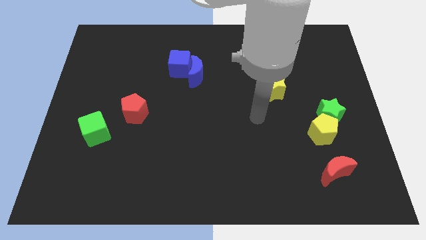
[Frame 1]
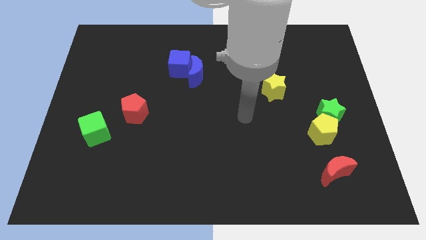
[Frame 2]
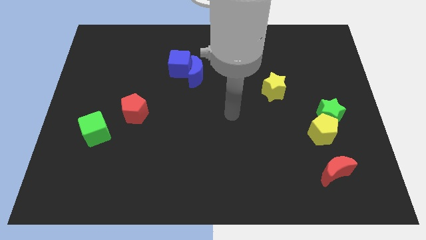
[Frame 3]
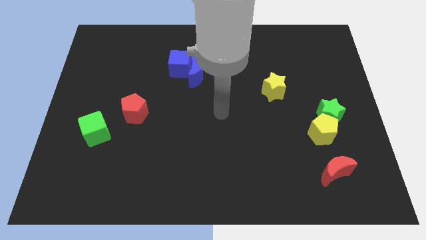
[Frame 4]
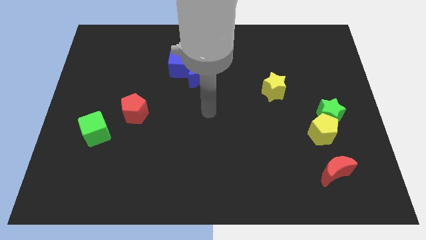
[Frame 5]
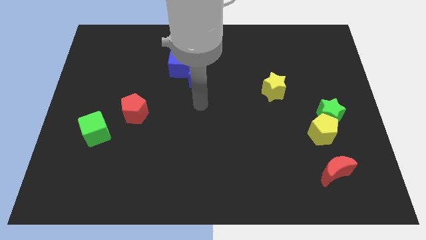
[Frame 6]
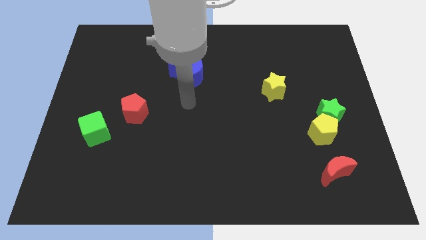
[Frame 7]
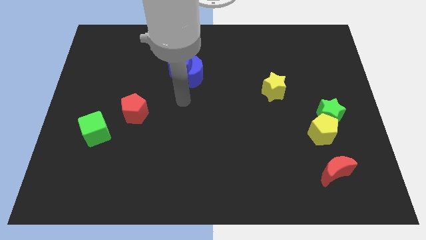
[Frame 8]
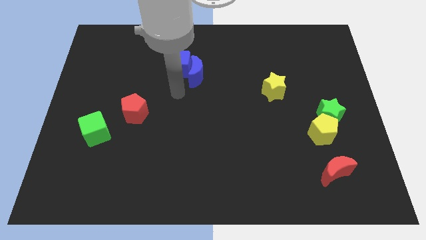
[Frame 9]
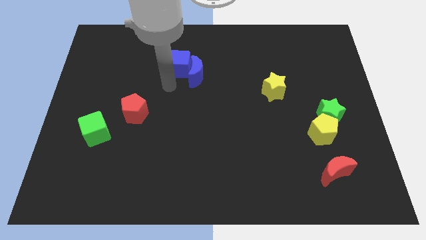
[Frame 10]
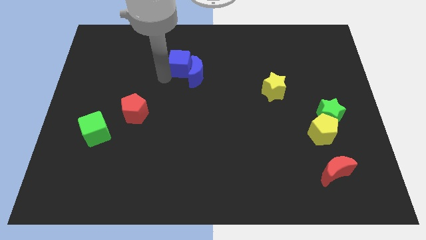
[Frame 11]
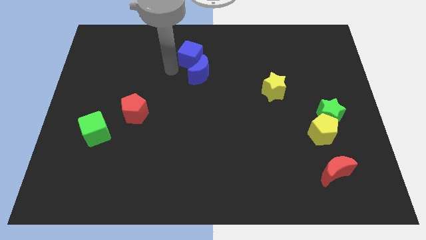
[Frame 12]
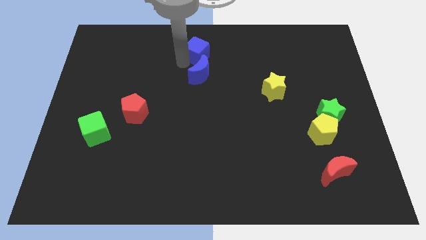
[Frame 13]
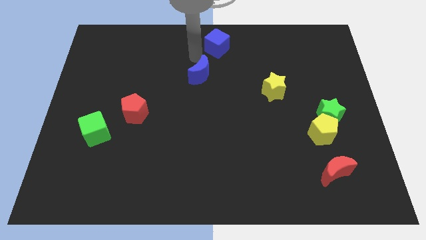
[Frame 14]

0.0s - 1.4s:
separate the blue moon from the blue cube

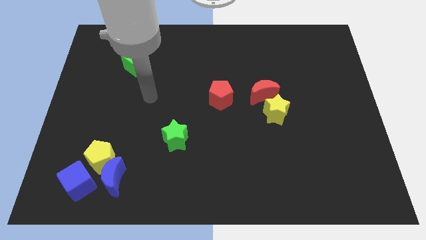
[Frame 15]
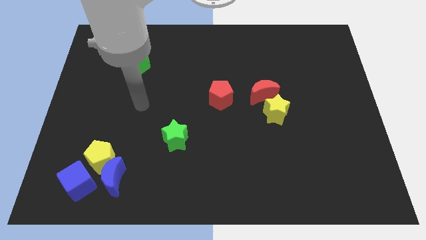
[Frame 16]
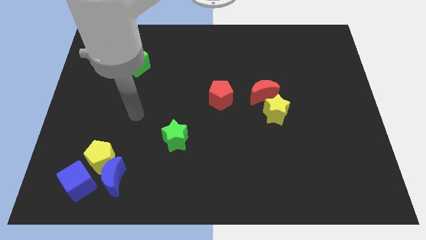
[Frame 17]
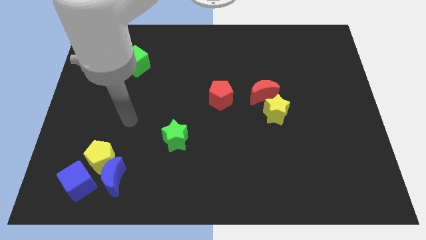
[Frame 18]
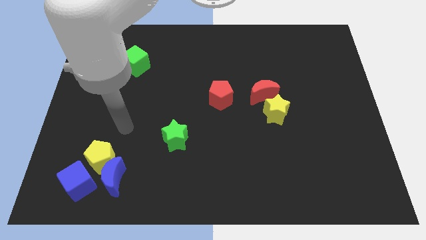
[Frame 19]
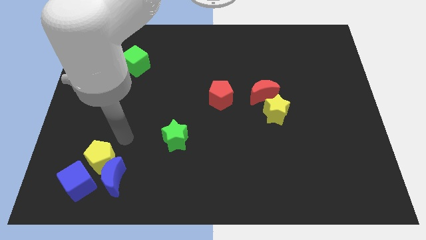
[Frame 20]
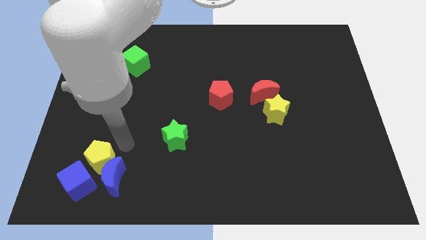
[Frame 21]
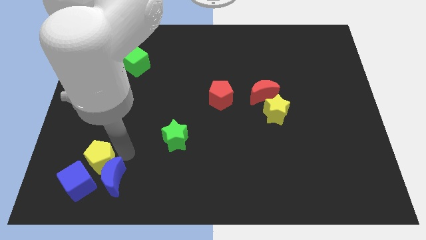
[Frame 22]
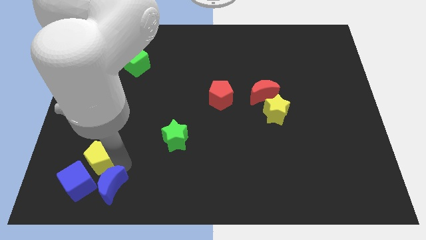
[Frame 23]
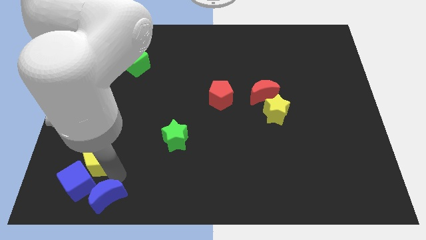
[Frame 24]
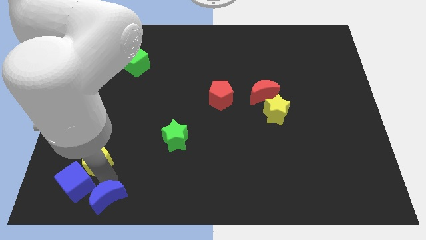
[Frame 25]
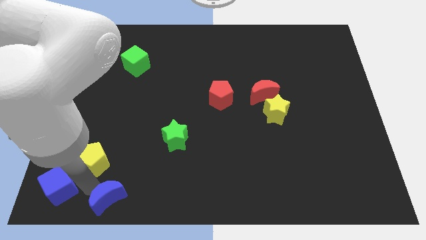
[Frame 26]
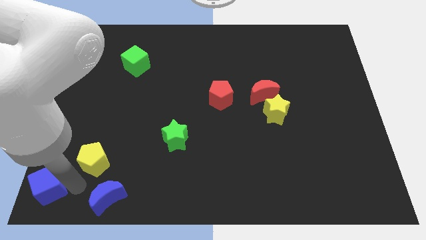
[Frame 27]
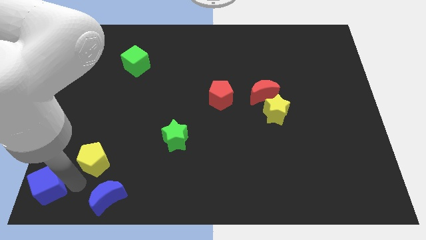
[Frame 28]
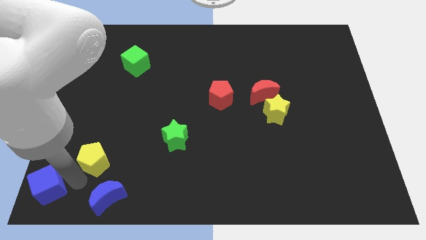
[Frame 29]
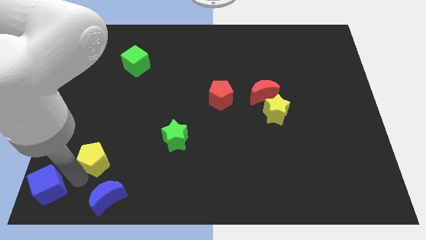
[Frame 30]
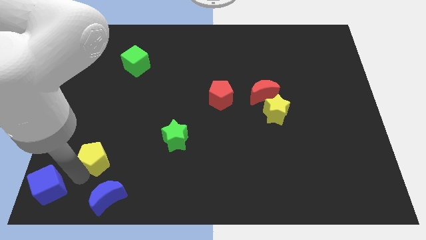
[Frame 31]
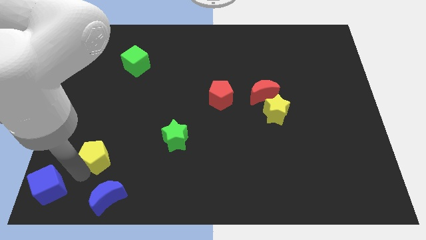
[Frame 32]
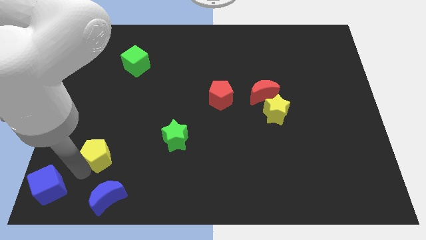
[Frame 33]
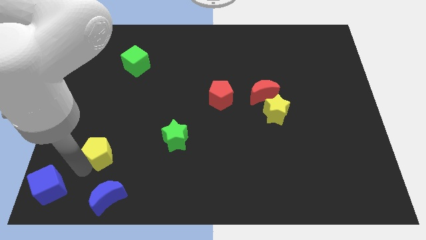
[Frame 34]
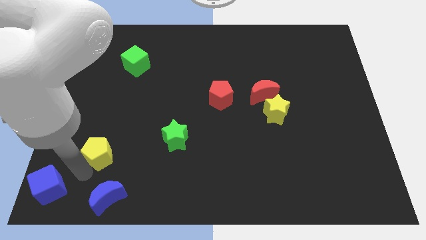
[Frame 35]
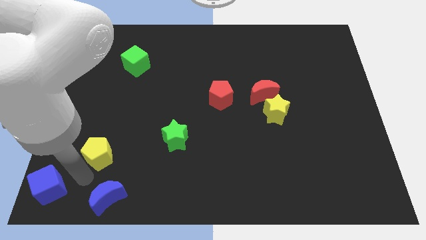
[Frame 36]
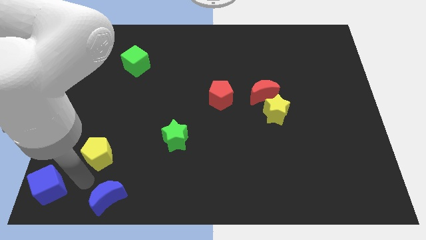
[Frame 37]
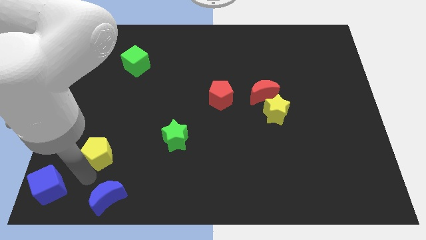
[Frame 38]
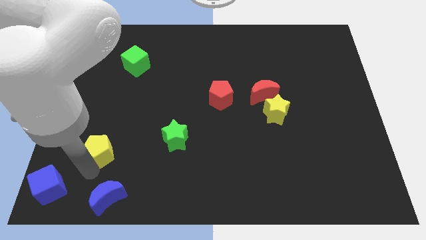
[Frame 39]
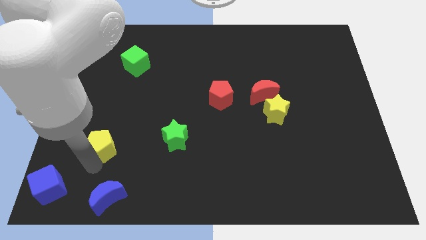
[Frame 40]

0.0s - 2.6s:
pull the yellow pentagon apart from the blue moon and blue cube

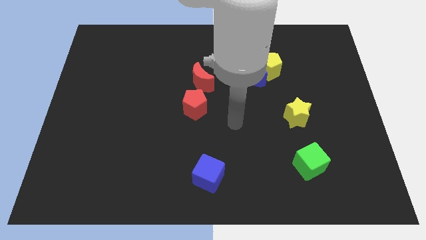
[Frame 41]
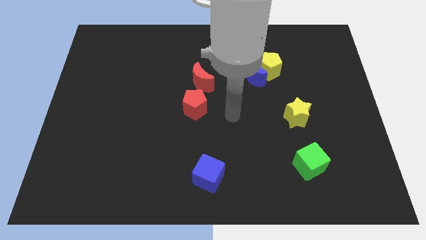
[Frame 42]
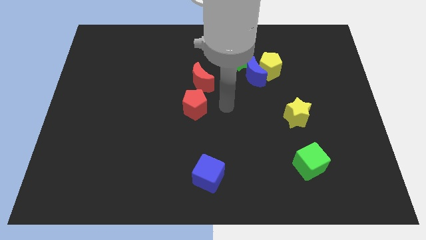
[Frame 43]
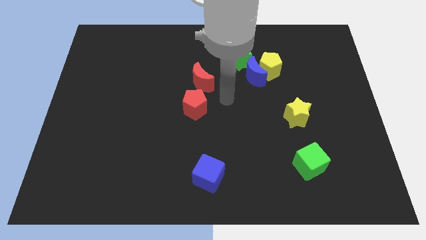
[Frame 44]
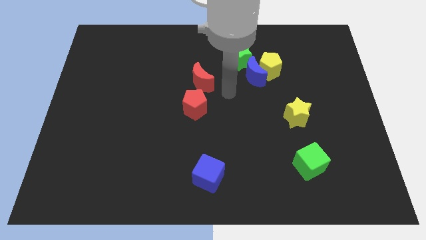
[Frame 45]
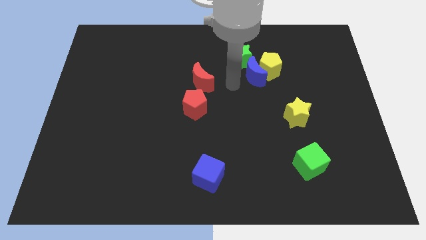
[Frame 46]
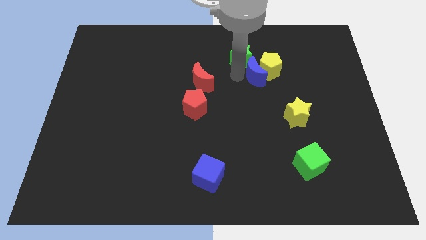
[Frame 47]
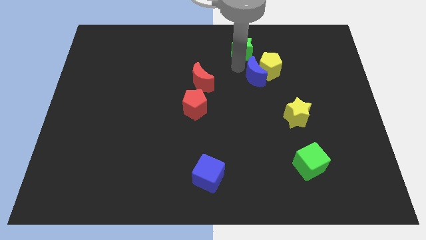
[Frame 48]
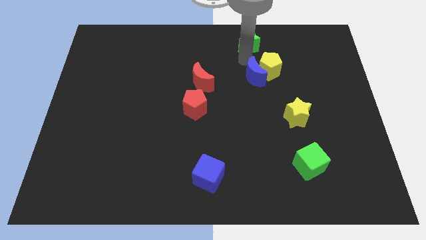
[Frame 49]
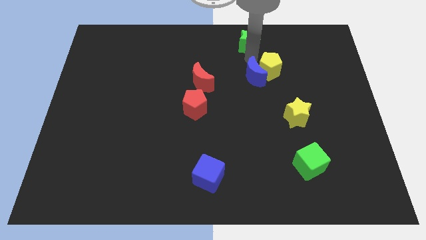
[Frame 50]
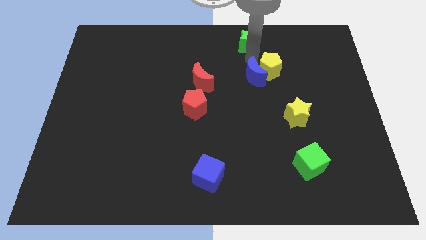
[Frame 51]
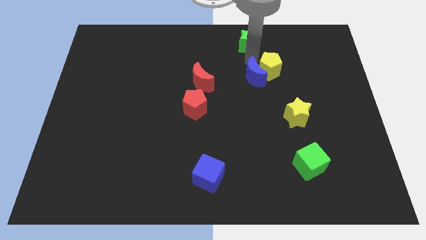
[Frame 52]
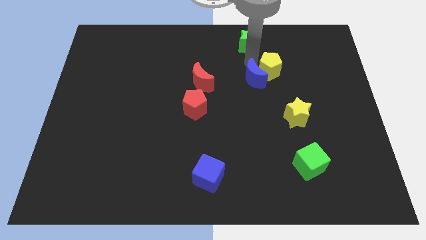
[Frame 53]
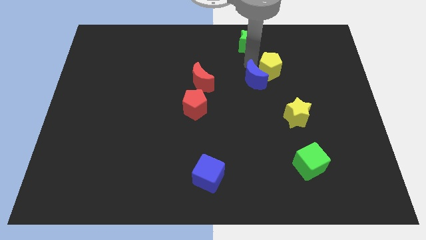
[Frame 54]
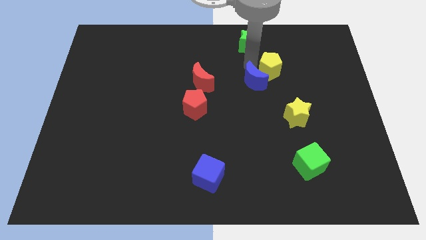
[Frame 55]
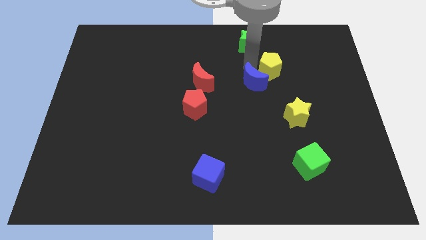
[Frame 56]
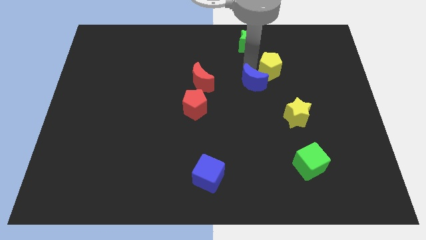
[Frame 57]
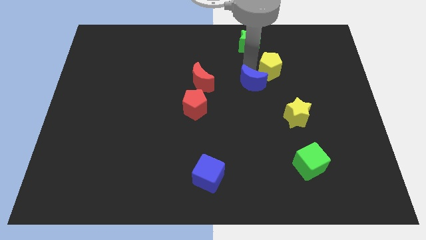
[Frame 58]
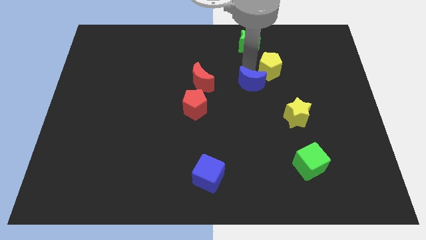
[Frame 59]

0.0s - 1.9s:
separate the blue moon from the yellow pentagon and green star

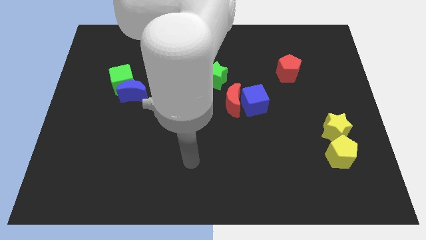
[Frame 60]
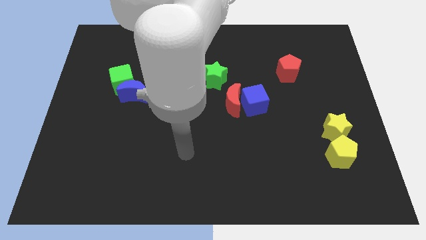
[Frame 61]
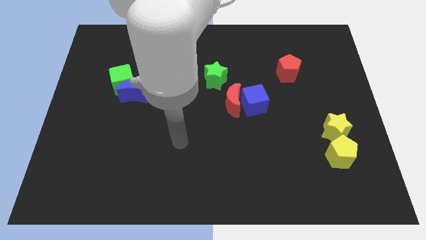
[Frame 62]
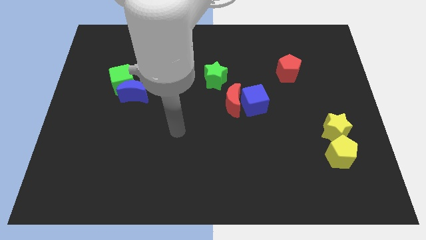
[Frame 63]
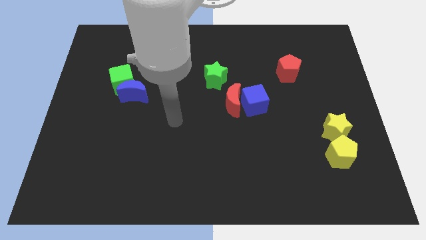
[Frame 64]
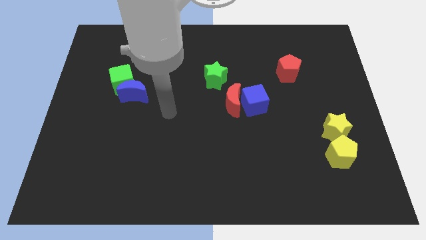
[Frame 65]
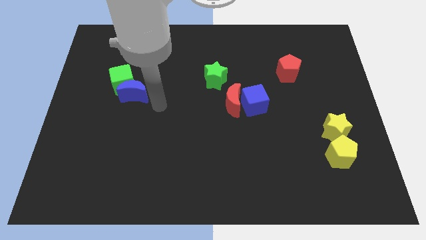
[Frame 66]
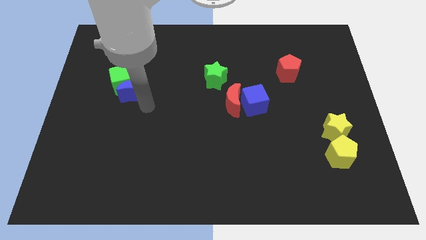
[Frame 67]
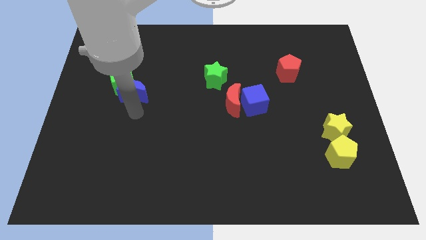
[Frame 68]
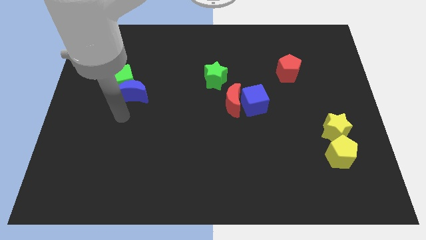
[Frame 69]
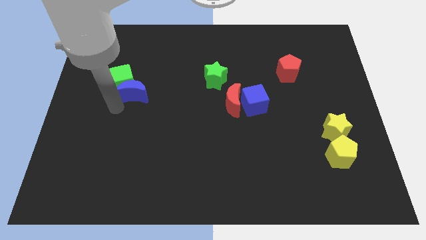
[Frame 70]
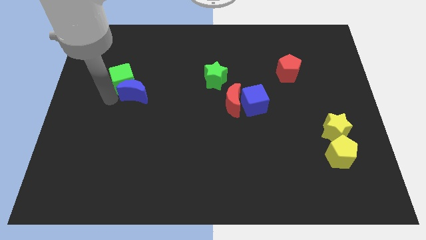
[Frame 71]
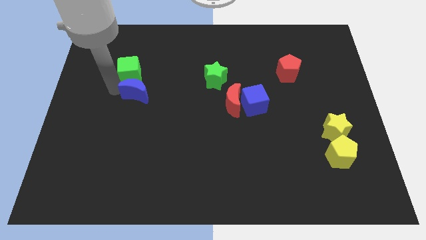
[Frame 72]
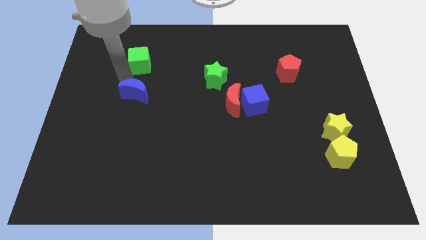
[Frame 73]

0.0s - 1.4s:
move the blue moon away from the green cube

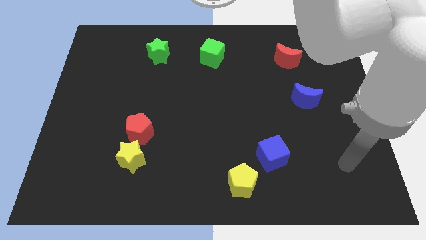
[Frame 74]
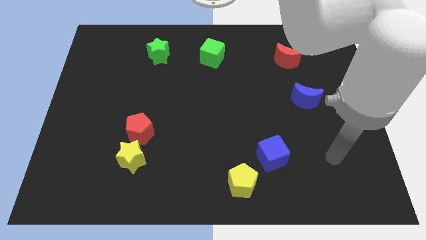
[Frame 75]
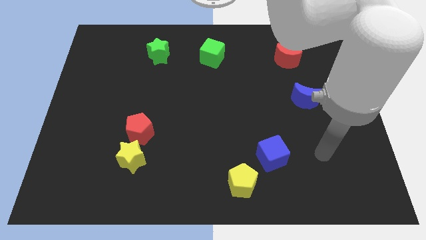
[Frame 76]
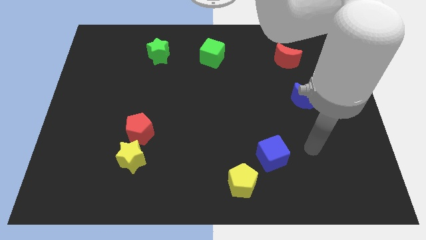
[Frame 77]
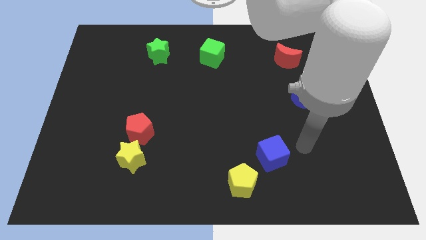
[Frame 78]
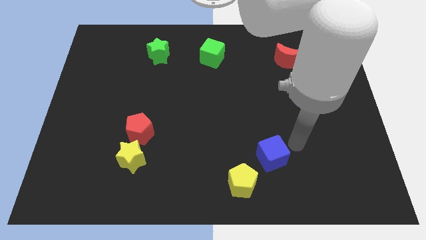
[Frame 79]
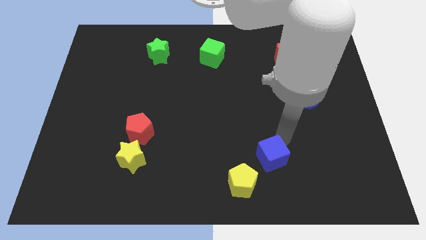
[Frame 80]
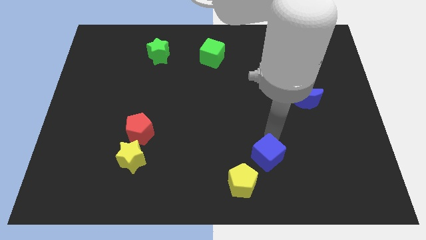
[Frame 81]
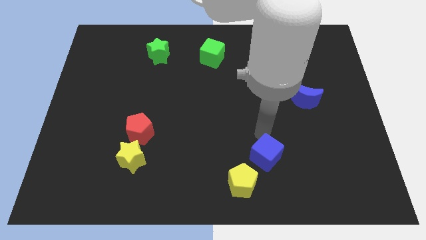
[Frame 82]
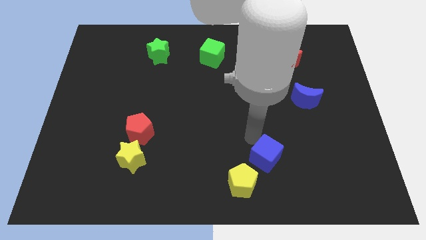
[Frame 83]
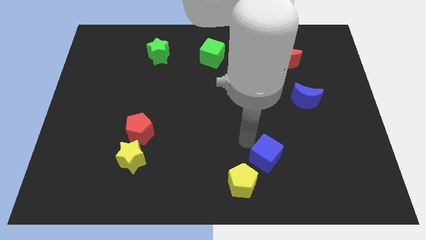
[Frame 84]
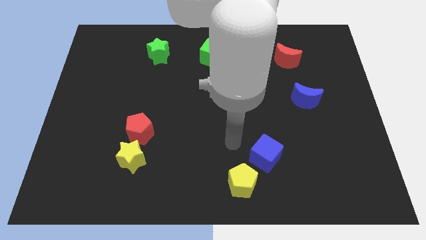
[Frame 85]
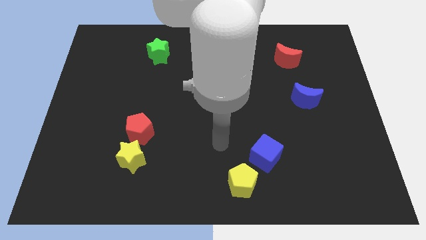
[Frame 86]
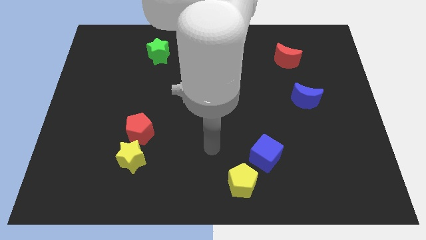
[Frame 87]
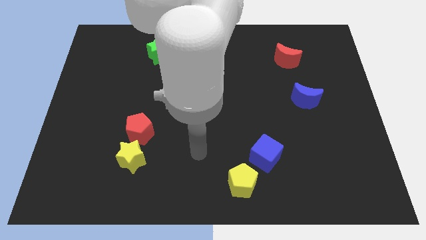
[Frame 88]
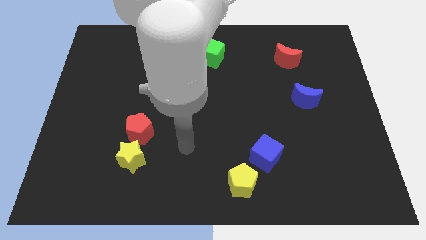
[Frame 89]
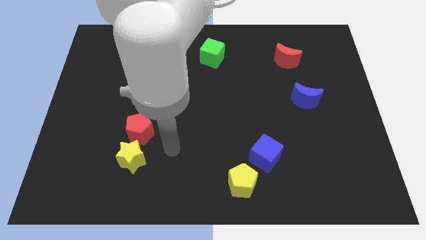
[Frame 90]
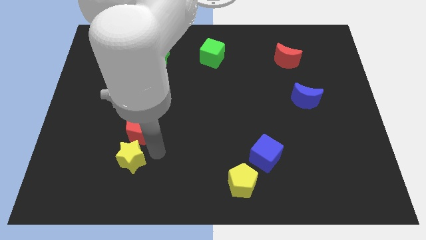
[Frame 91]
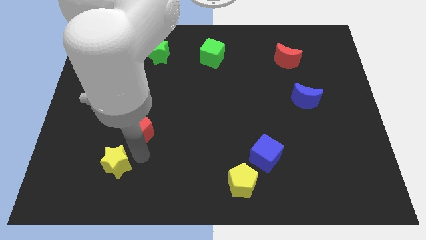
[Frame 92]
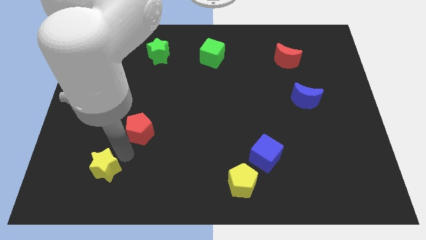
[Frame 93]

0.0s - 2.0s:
separate the red pentagon from the yellow star
